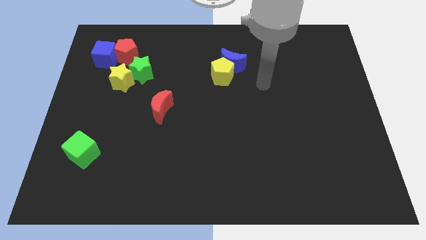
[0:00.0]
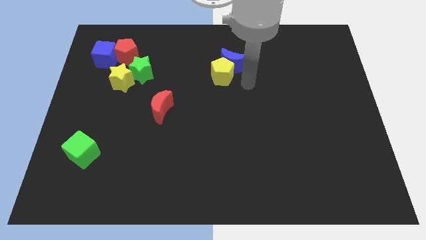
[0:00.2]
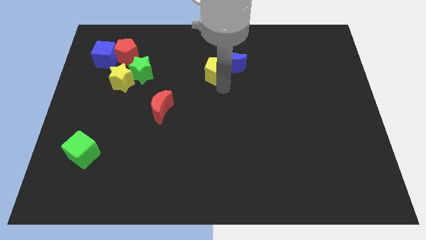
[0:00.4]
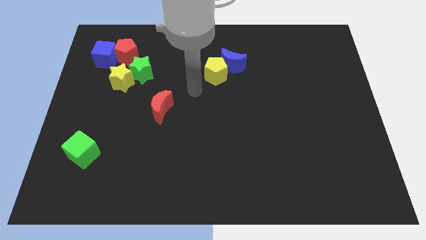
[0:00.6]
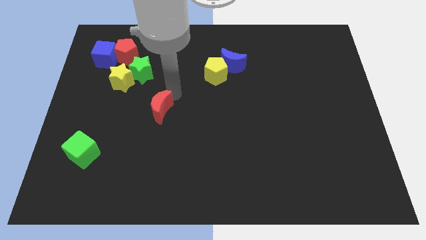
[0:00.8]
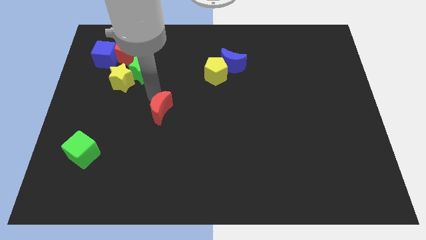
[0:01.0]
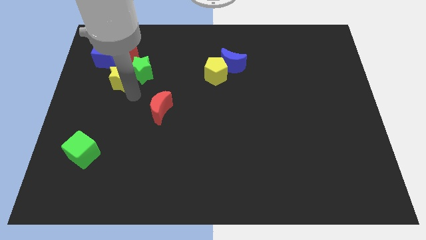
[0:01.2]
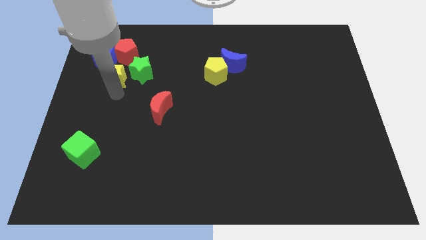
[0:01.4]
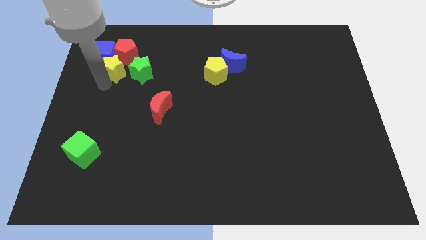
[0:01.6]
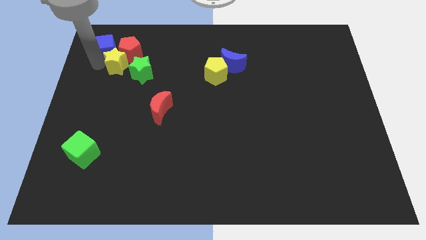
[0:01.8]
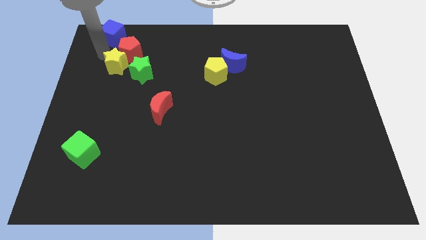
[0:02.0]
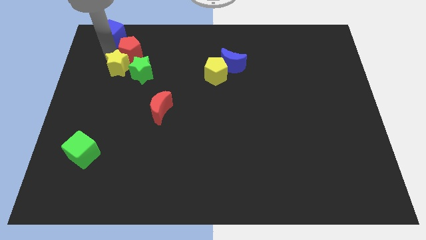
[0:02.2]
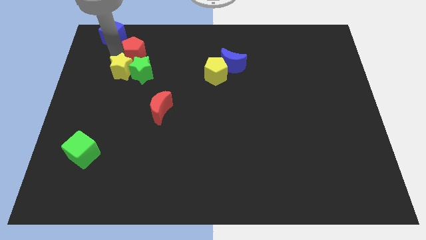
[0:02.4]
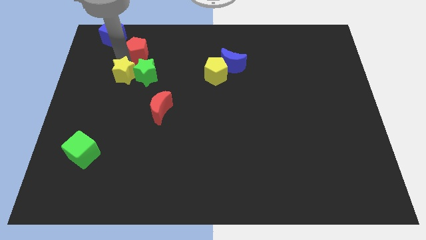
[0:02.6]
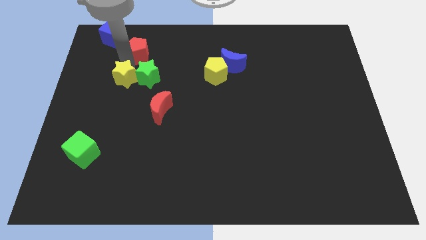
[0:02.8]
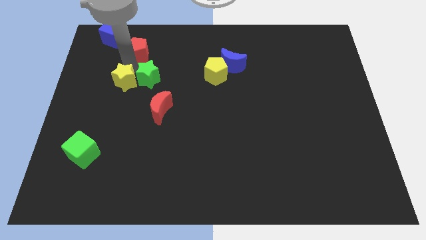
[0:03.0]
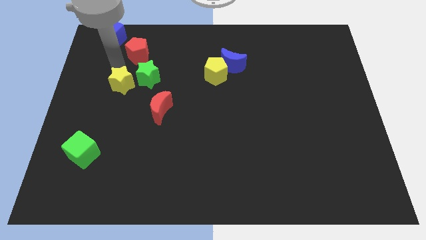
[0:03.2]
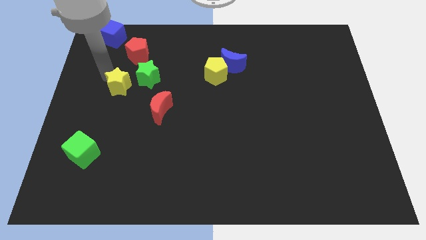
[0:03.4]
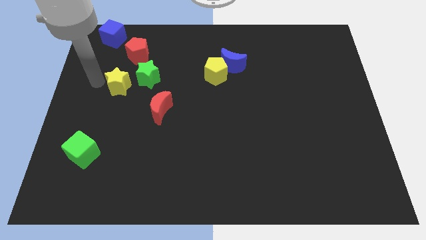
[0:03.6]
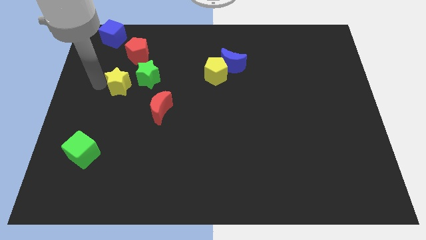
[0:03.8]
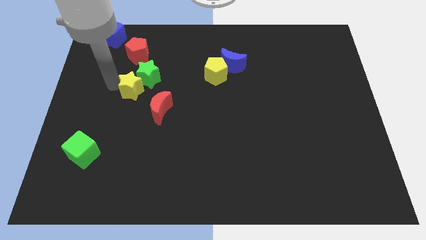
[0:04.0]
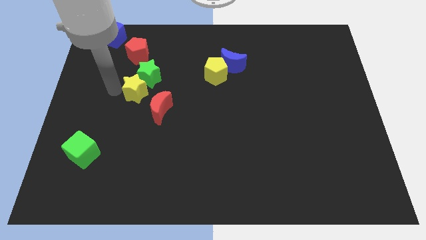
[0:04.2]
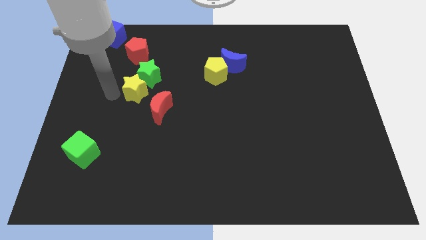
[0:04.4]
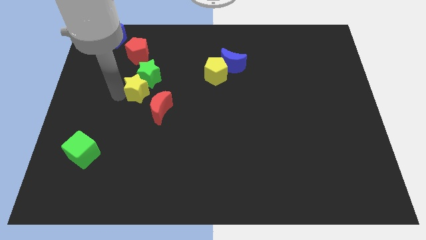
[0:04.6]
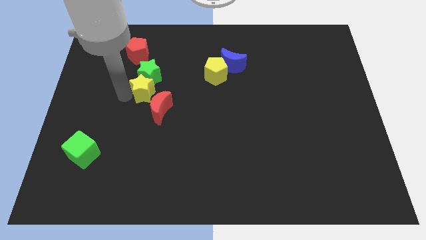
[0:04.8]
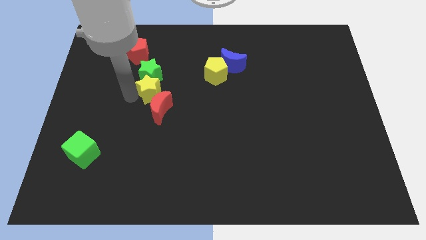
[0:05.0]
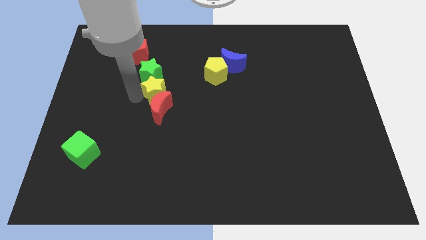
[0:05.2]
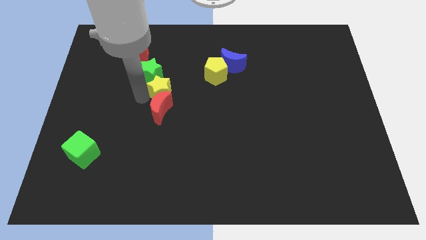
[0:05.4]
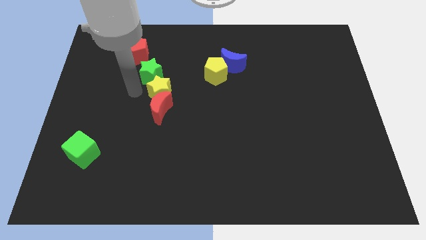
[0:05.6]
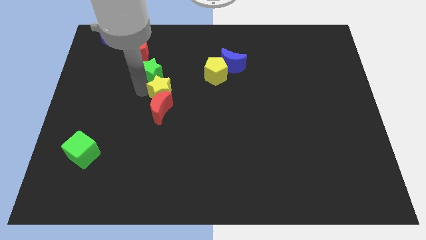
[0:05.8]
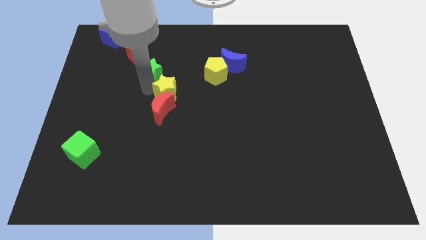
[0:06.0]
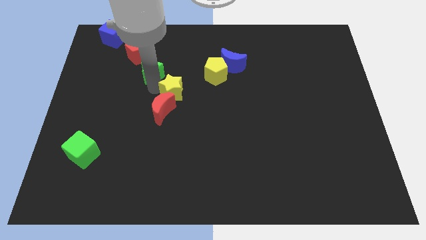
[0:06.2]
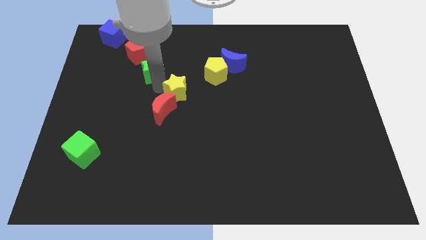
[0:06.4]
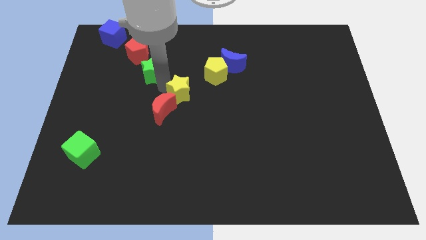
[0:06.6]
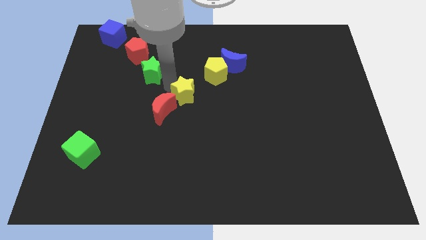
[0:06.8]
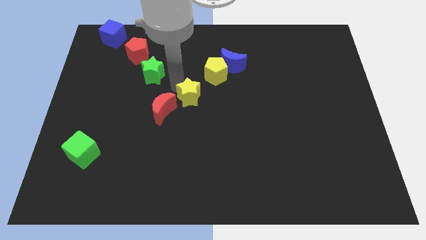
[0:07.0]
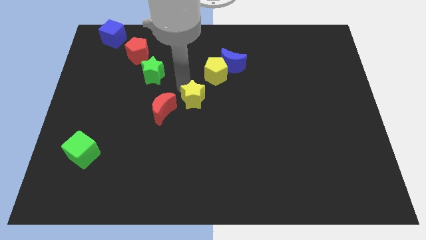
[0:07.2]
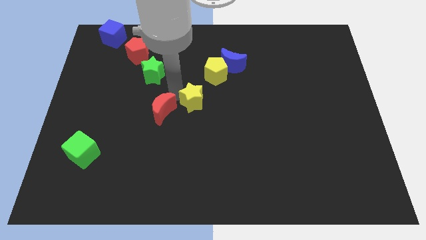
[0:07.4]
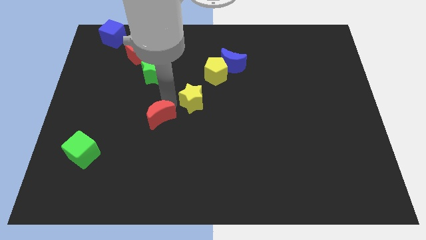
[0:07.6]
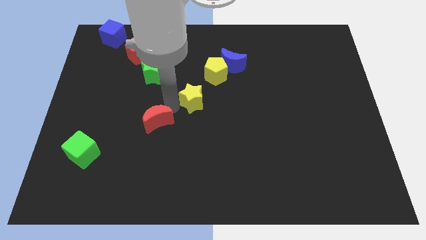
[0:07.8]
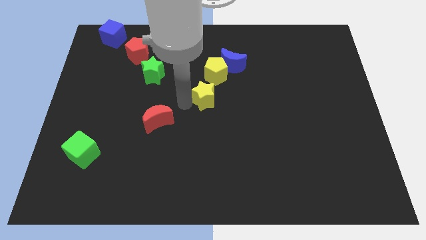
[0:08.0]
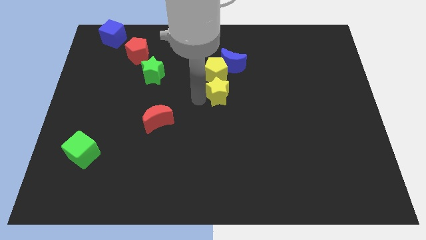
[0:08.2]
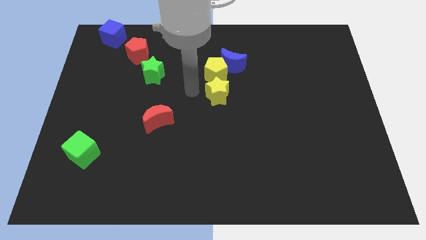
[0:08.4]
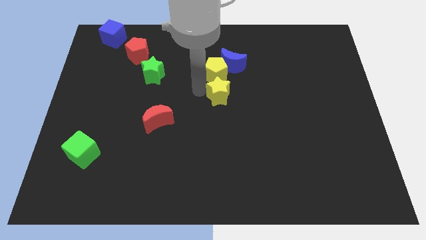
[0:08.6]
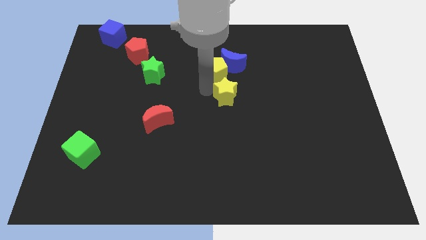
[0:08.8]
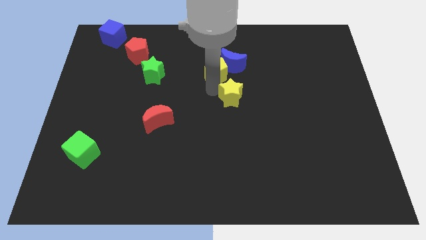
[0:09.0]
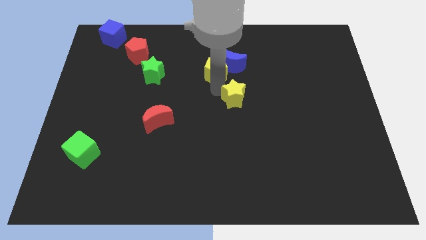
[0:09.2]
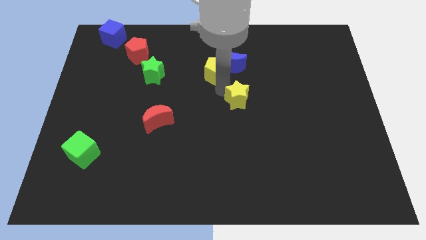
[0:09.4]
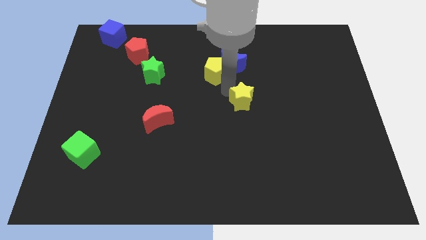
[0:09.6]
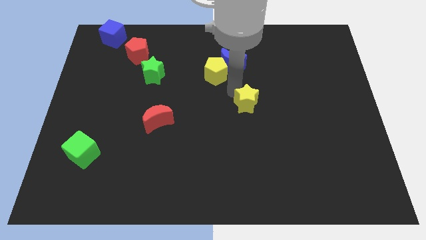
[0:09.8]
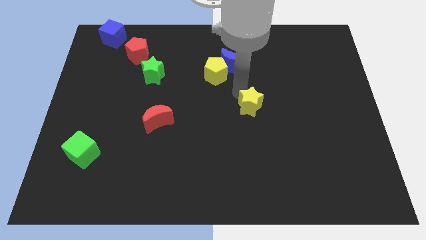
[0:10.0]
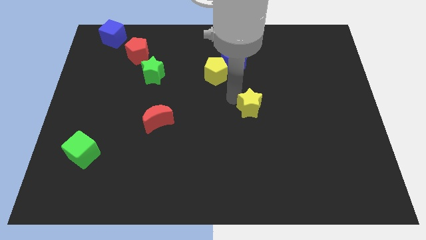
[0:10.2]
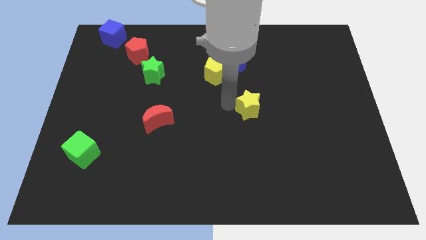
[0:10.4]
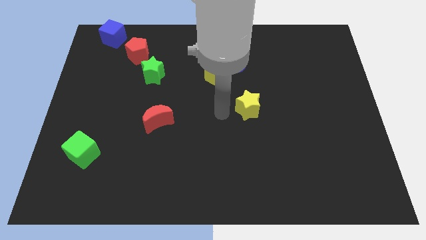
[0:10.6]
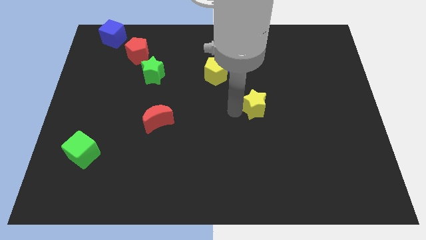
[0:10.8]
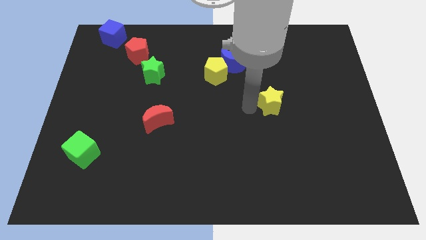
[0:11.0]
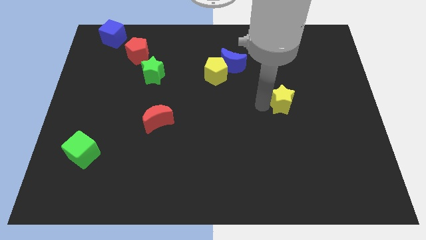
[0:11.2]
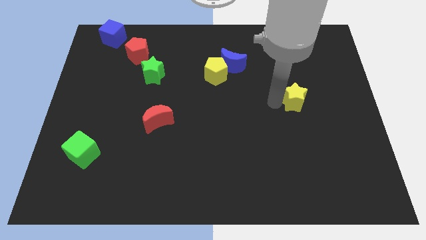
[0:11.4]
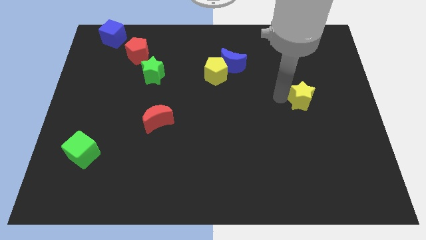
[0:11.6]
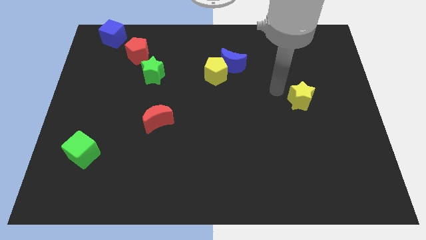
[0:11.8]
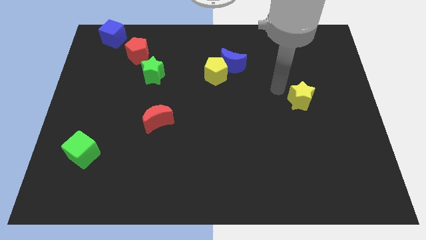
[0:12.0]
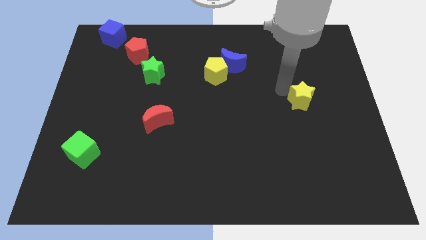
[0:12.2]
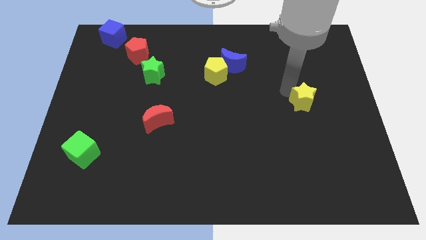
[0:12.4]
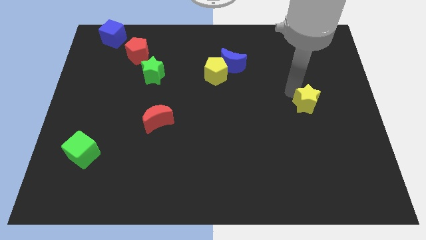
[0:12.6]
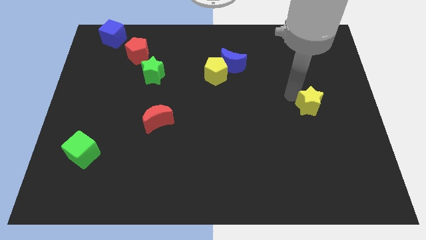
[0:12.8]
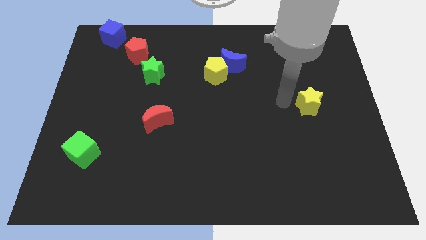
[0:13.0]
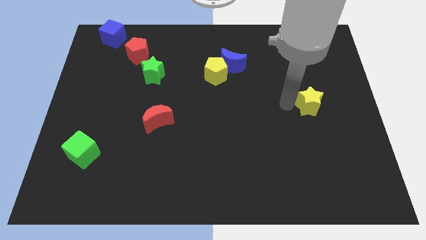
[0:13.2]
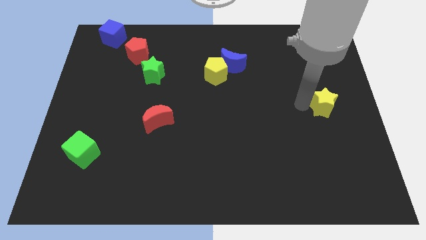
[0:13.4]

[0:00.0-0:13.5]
push the yellow star to the right side of the board
